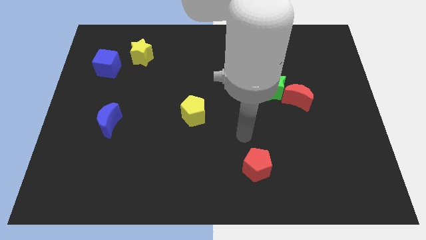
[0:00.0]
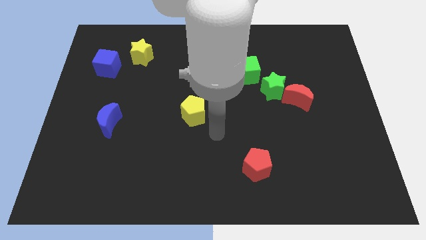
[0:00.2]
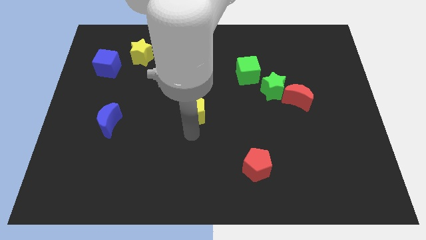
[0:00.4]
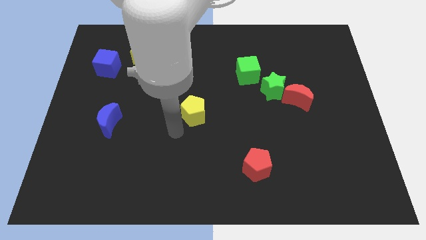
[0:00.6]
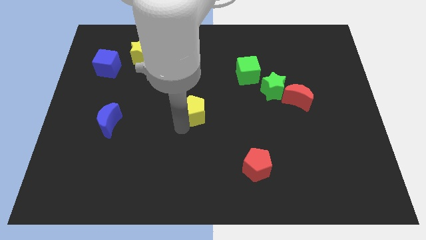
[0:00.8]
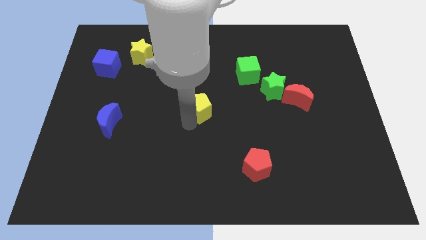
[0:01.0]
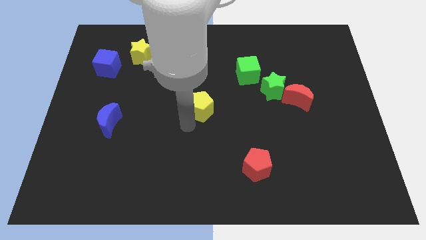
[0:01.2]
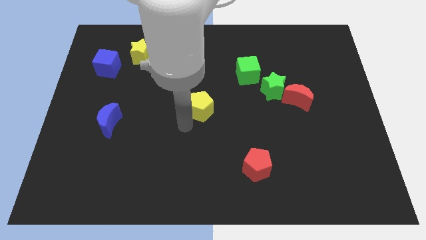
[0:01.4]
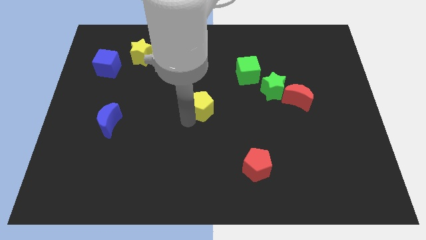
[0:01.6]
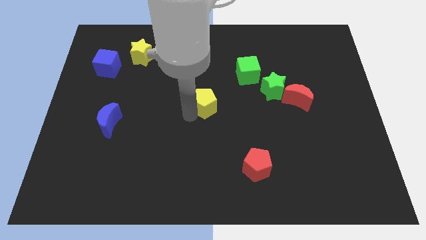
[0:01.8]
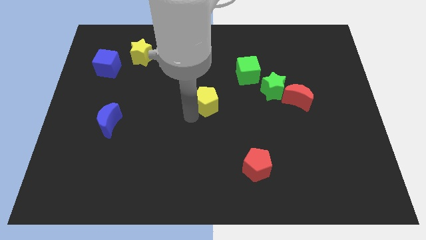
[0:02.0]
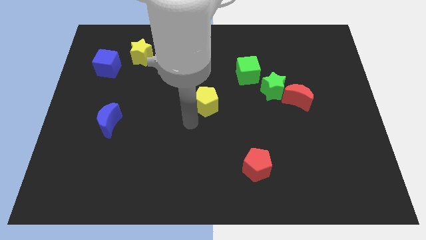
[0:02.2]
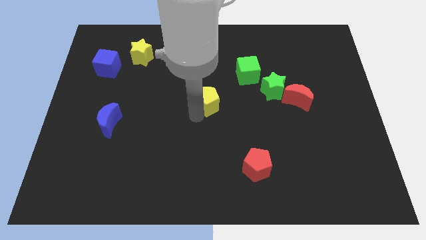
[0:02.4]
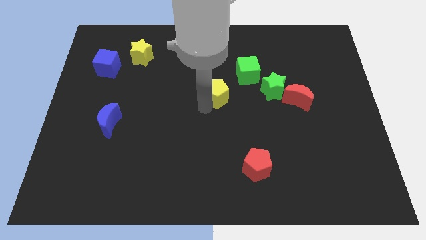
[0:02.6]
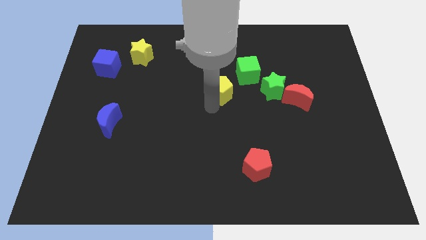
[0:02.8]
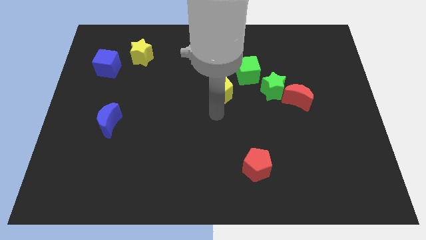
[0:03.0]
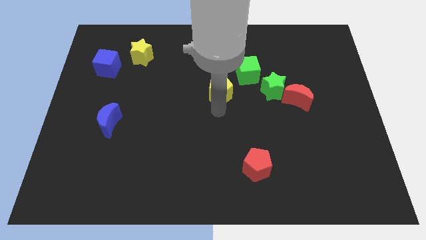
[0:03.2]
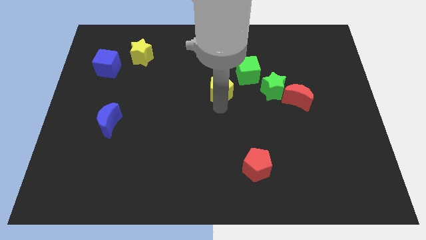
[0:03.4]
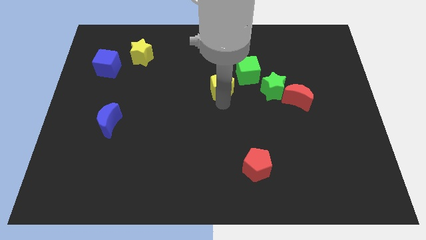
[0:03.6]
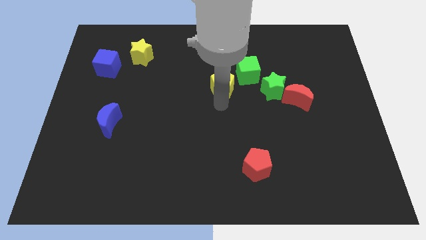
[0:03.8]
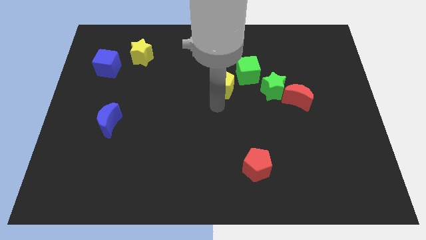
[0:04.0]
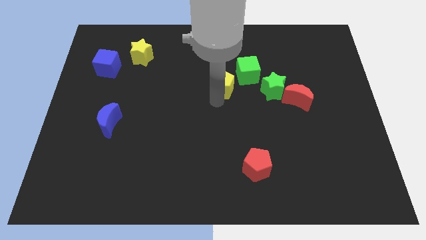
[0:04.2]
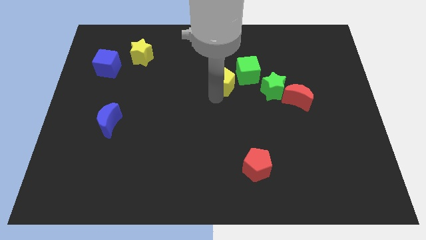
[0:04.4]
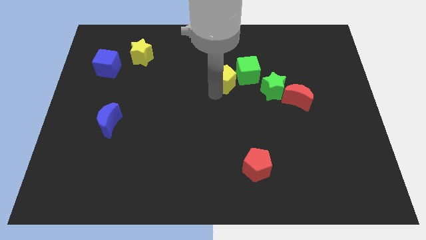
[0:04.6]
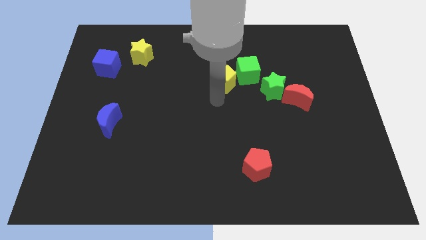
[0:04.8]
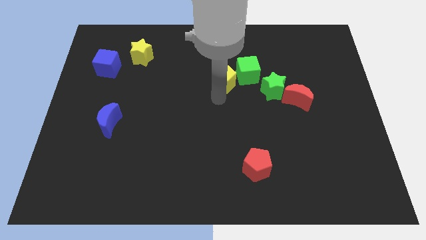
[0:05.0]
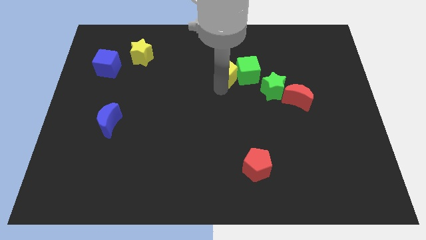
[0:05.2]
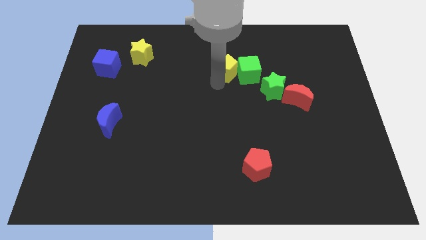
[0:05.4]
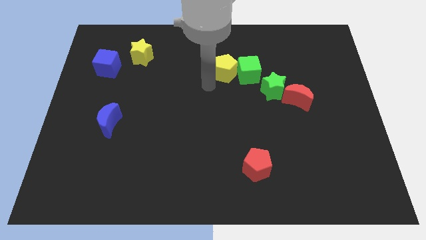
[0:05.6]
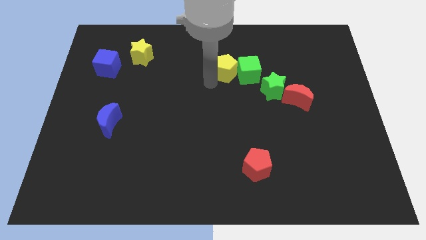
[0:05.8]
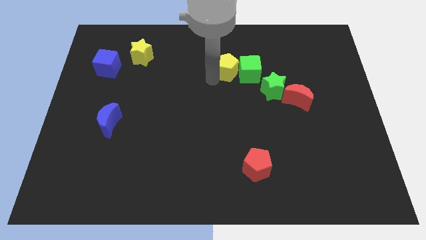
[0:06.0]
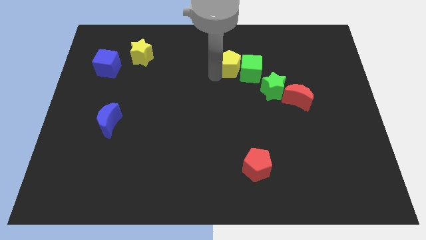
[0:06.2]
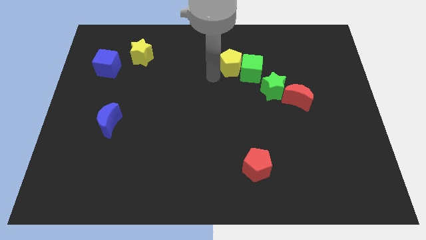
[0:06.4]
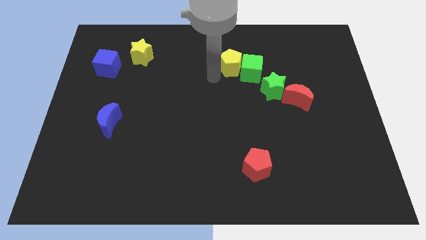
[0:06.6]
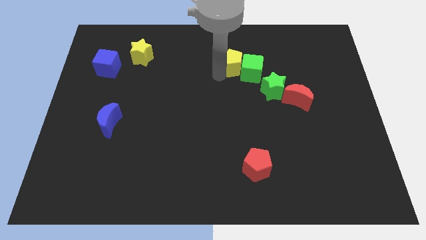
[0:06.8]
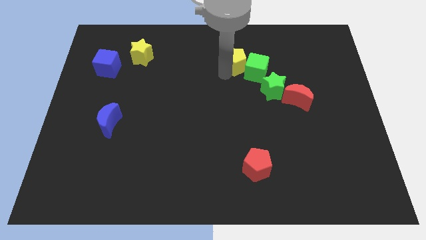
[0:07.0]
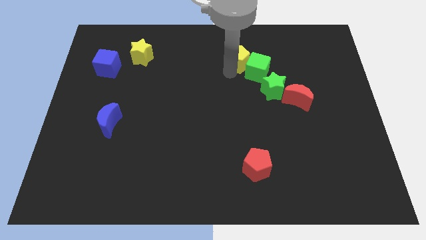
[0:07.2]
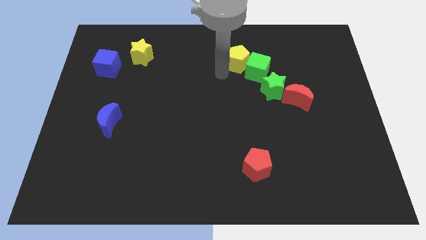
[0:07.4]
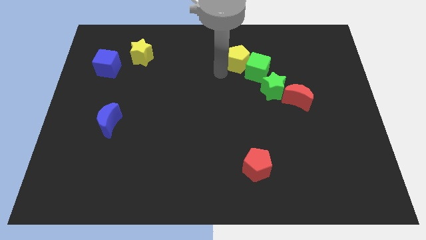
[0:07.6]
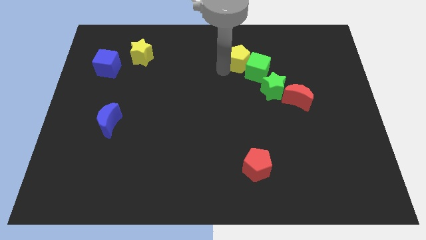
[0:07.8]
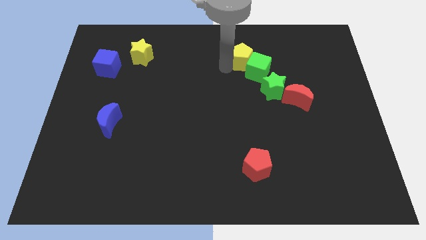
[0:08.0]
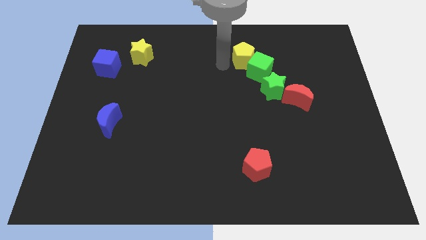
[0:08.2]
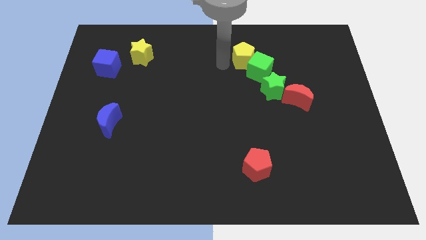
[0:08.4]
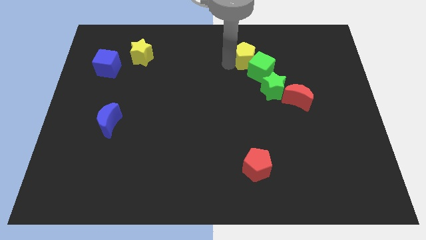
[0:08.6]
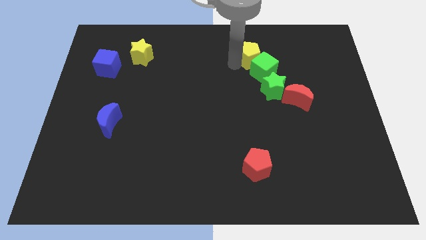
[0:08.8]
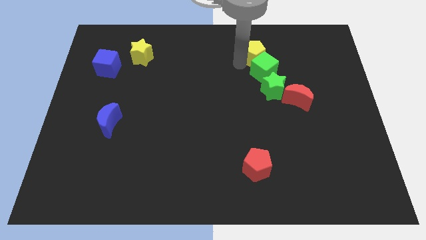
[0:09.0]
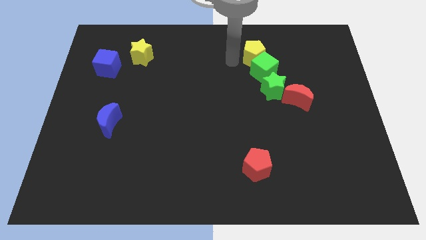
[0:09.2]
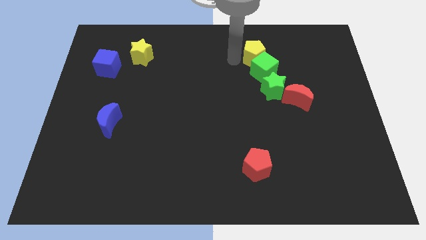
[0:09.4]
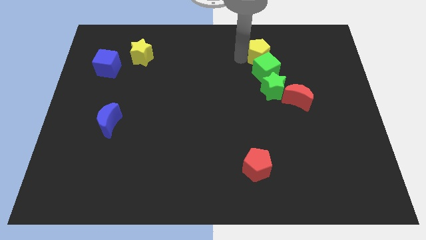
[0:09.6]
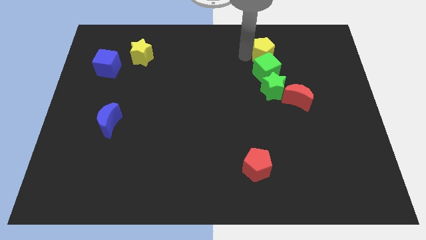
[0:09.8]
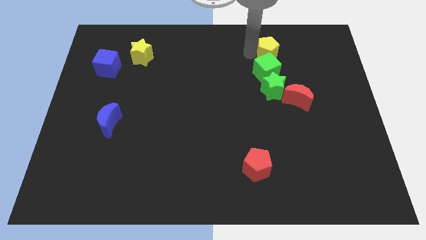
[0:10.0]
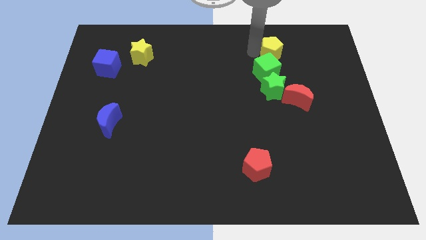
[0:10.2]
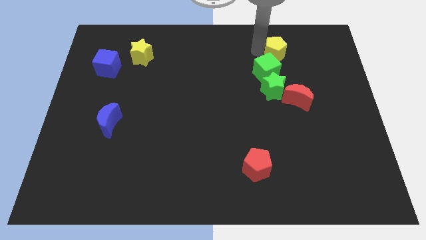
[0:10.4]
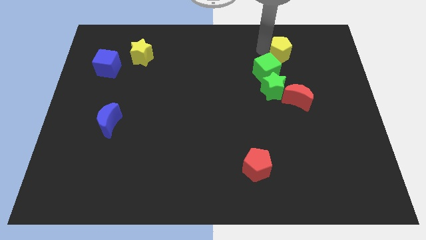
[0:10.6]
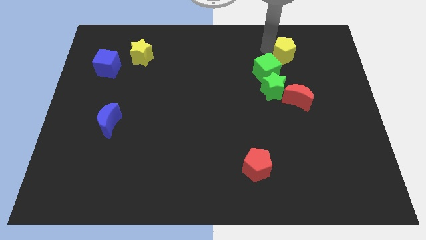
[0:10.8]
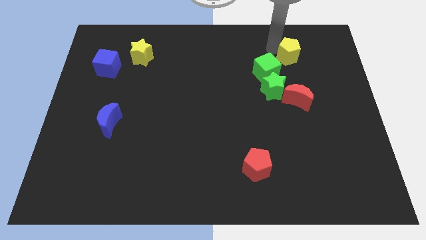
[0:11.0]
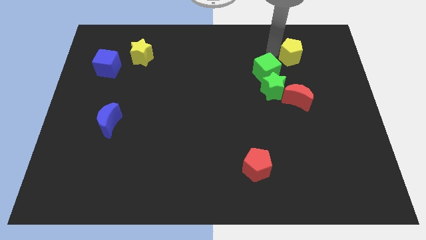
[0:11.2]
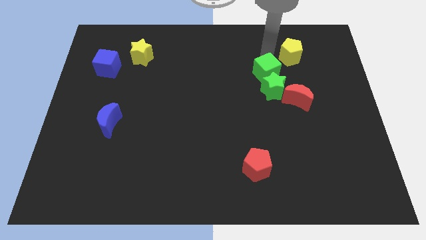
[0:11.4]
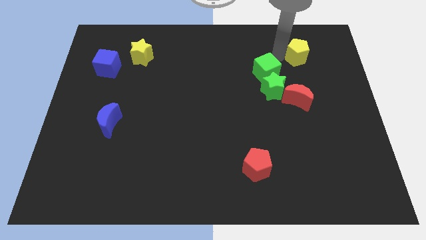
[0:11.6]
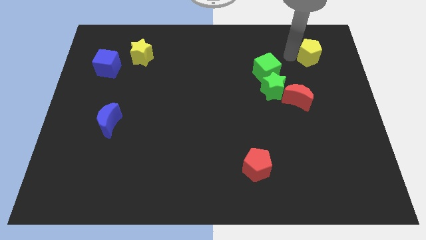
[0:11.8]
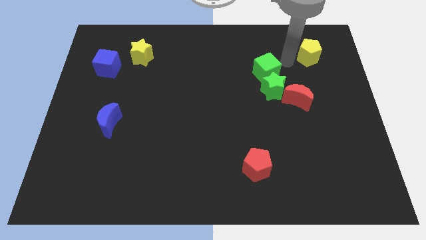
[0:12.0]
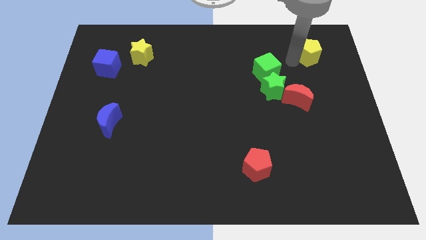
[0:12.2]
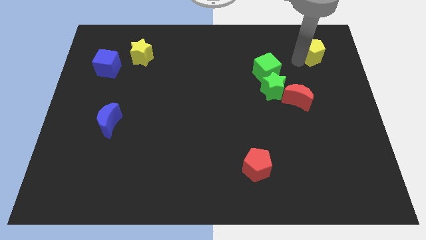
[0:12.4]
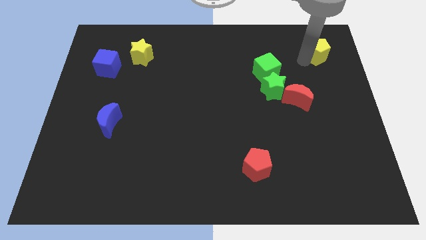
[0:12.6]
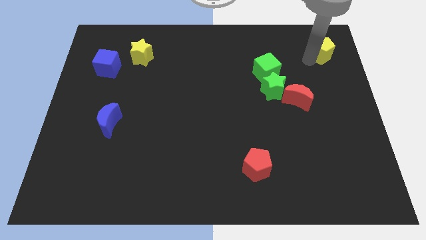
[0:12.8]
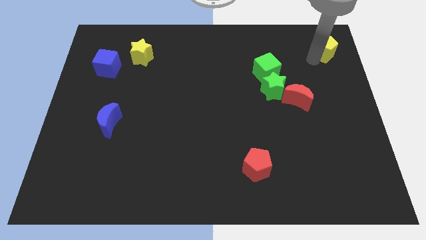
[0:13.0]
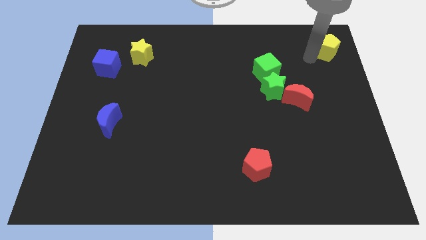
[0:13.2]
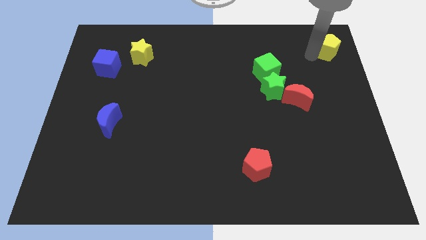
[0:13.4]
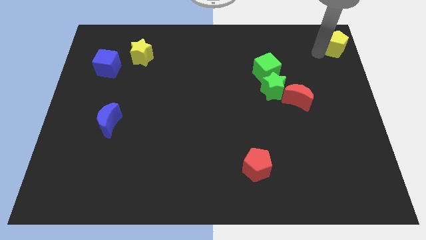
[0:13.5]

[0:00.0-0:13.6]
move the yellow pentagon to the upper right corner
